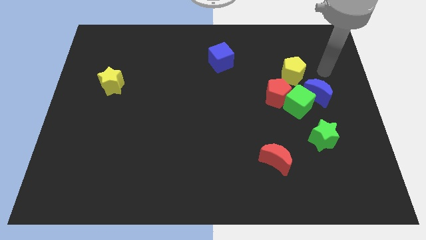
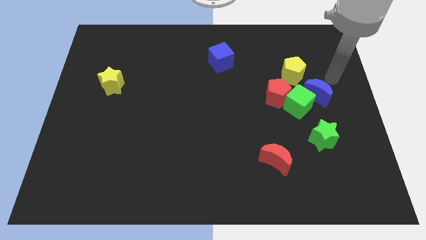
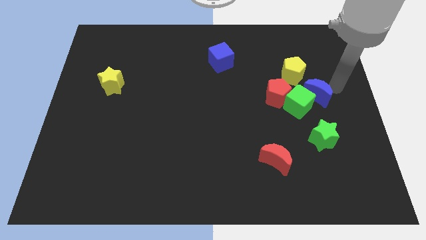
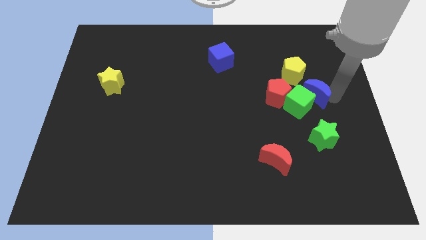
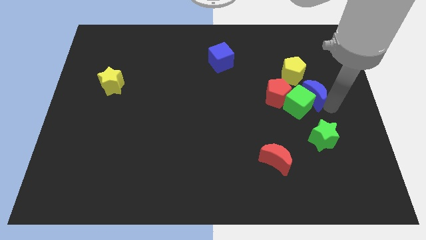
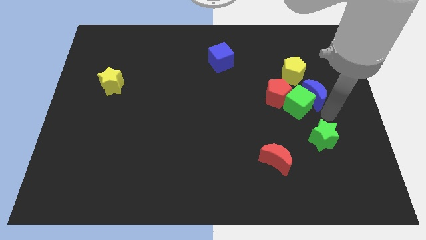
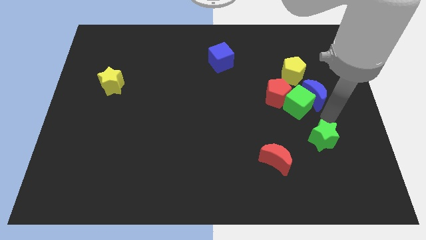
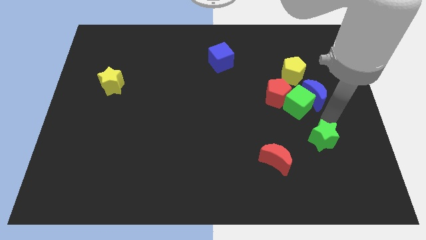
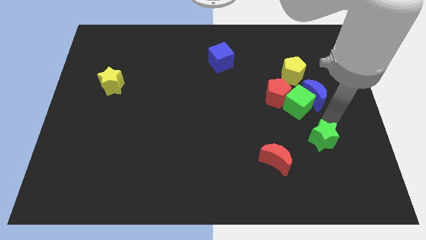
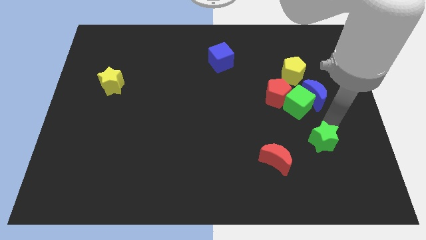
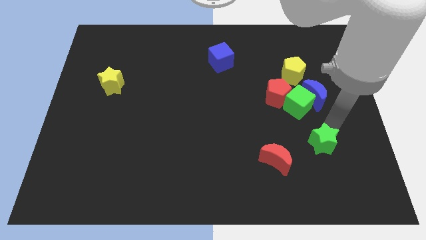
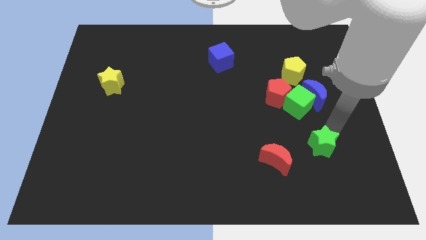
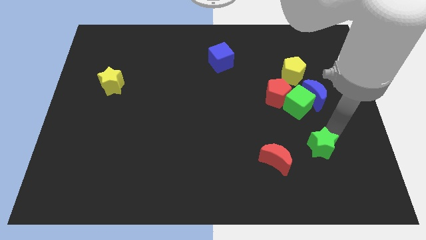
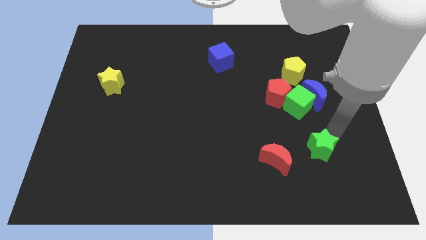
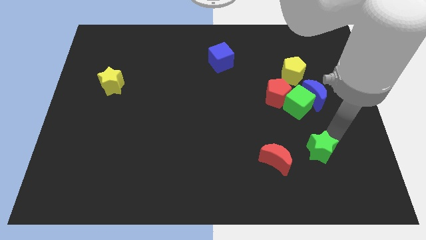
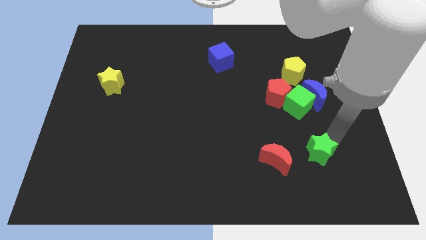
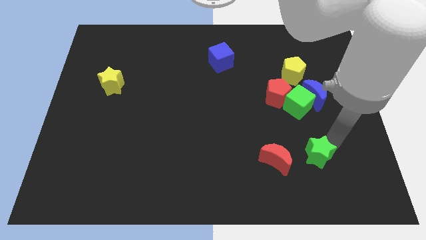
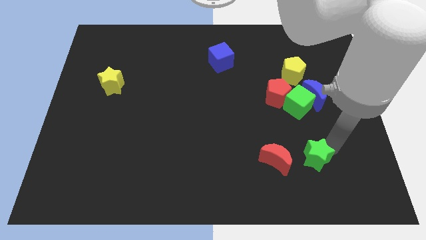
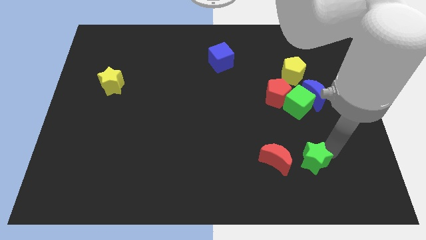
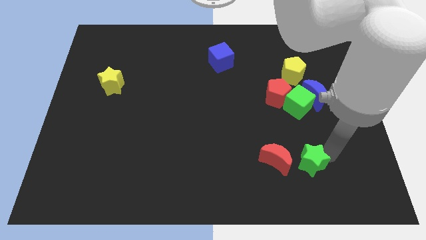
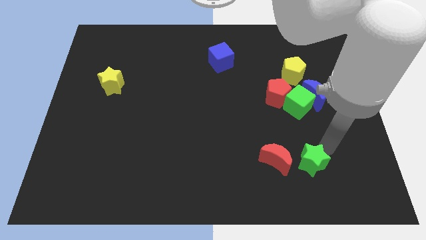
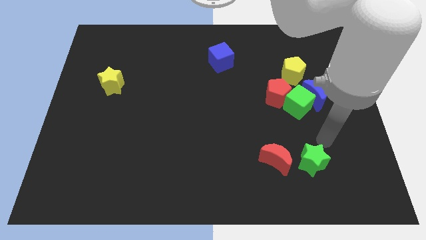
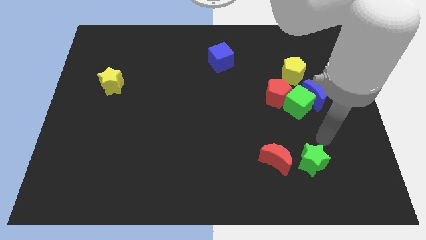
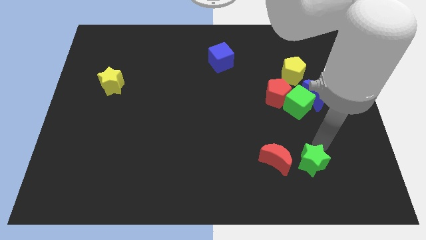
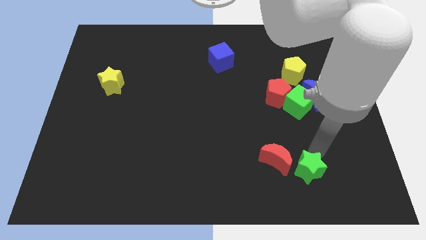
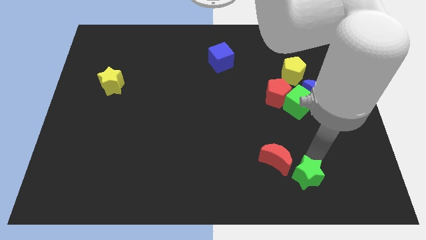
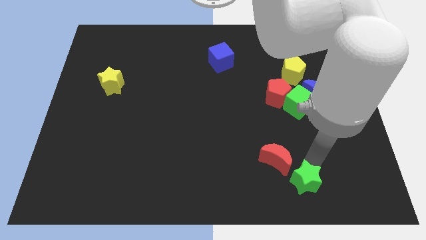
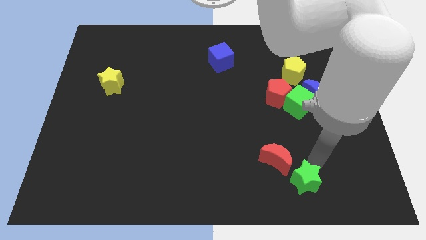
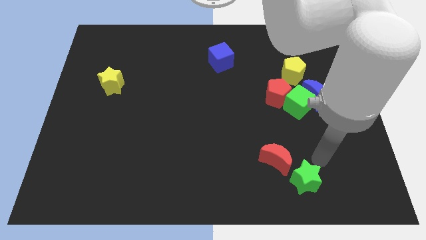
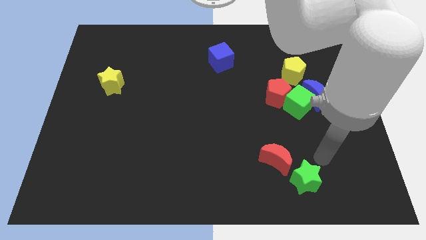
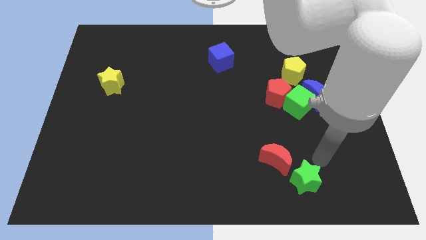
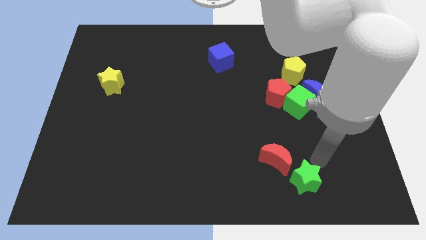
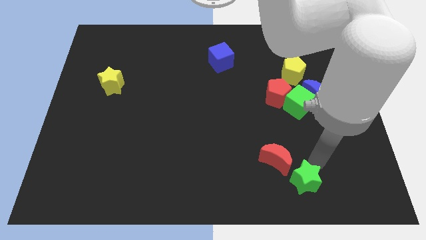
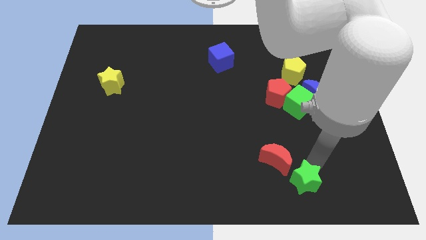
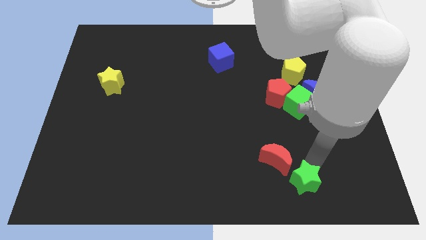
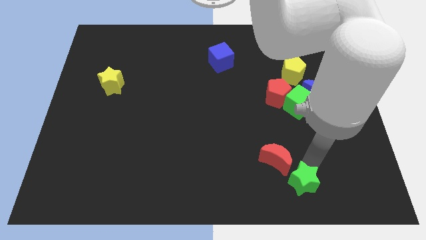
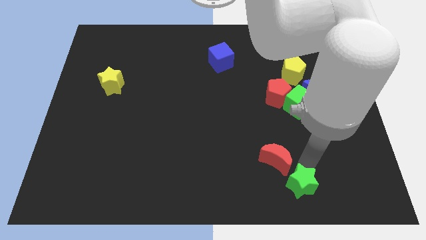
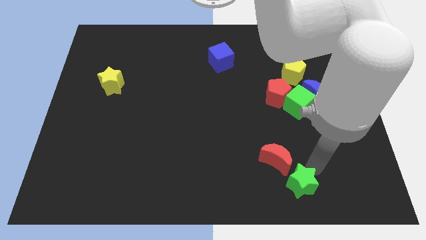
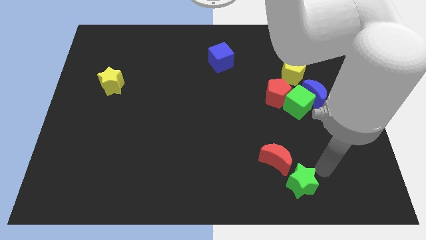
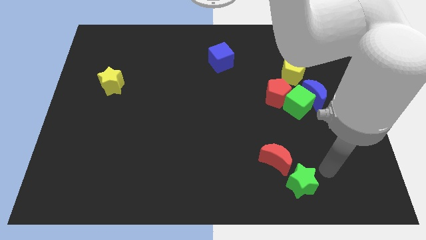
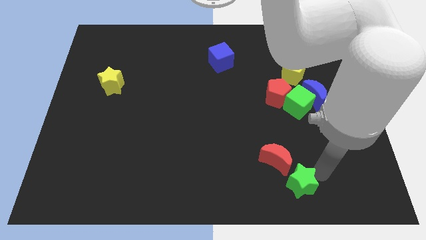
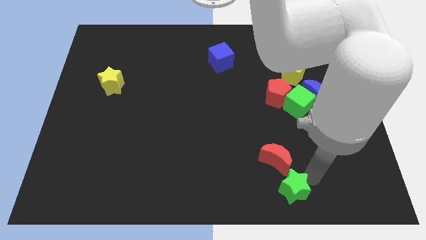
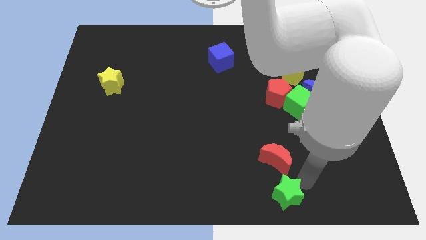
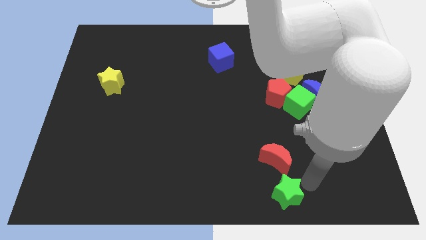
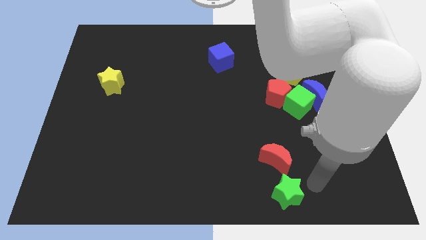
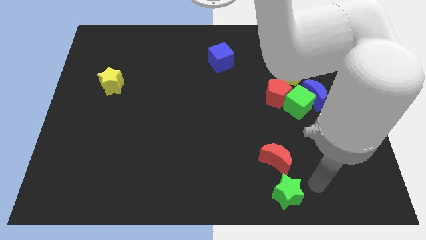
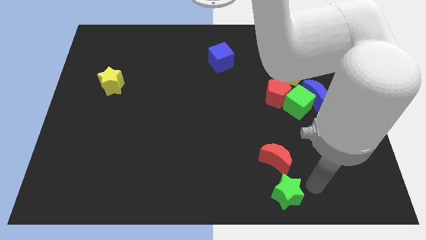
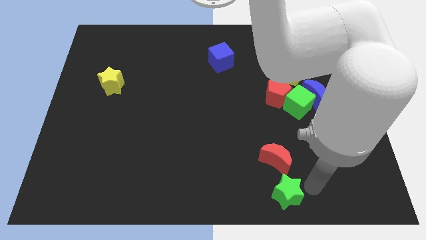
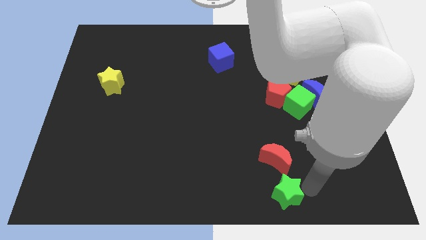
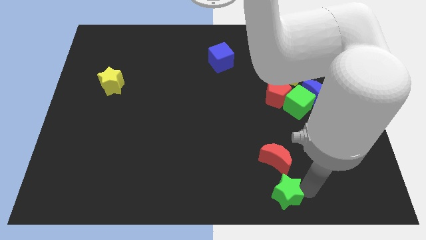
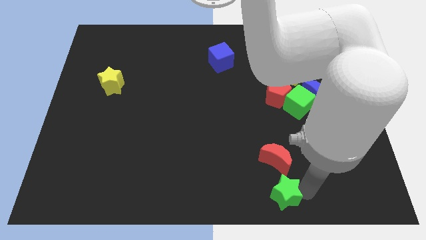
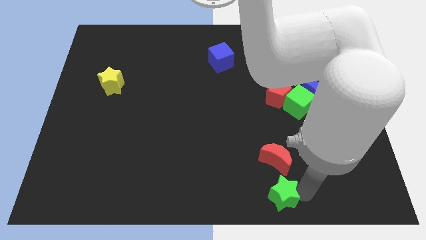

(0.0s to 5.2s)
push the green star to the bottom side

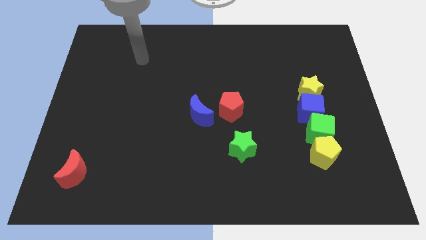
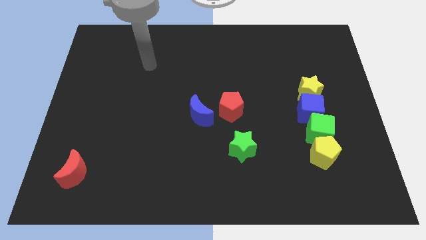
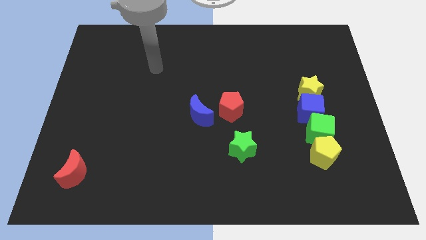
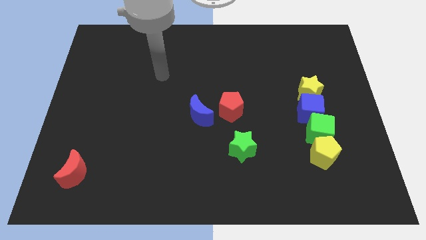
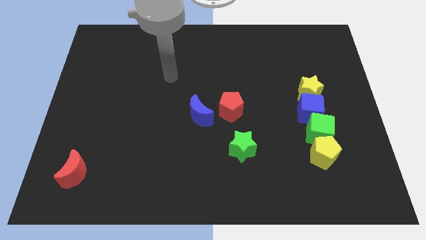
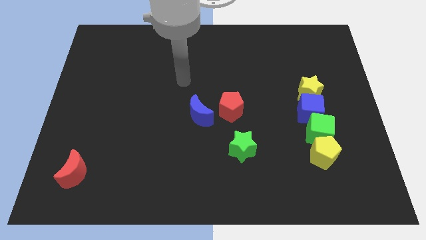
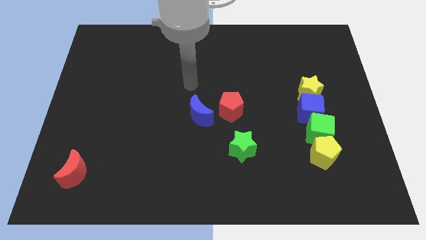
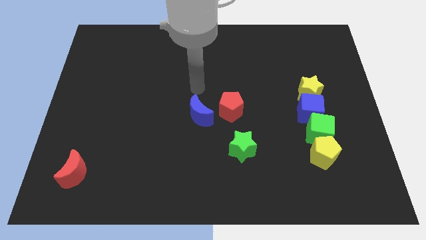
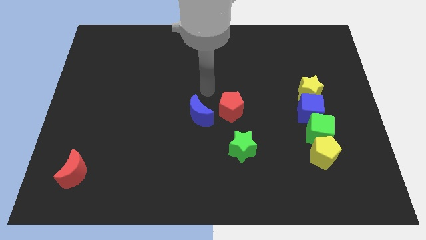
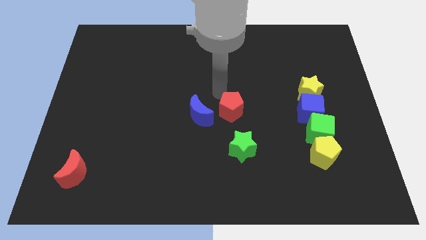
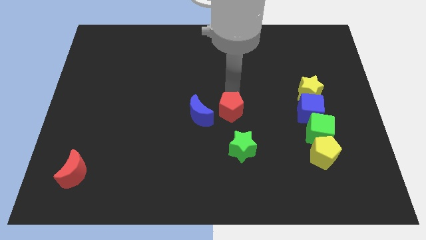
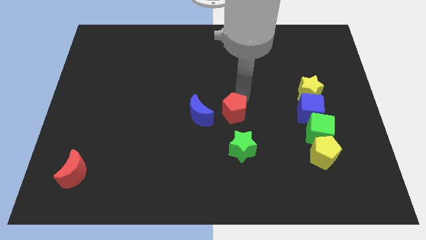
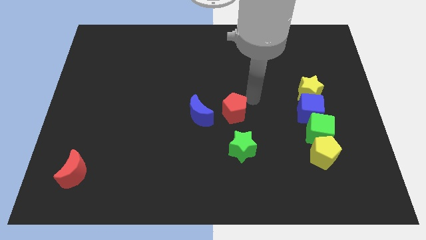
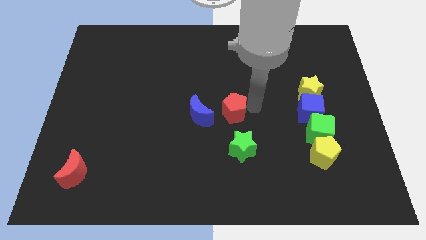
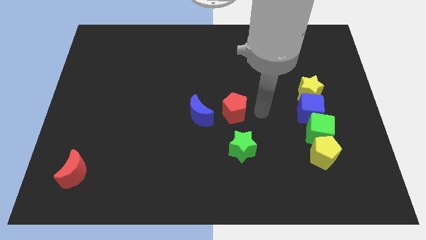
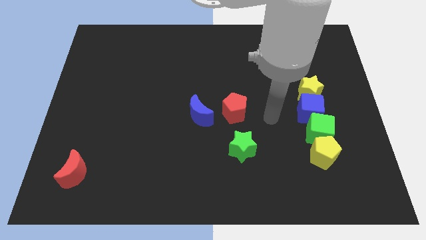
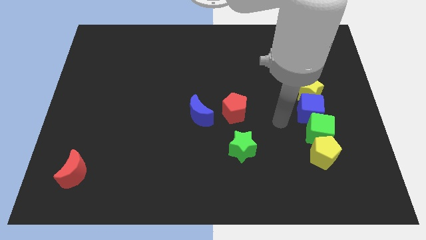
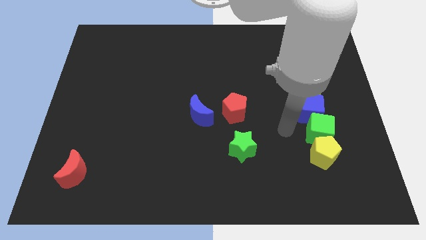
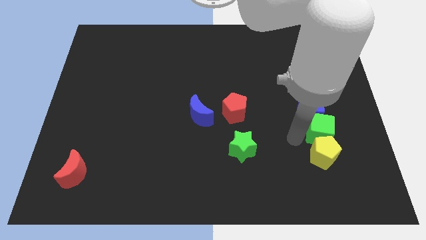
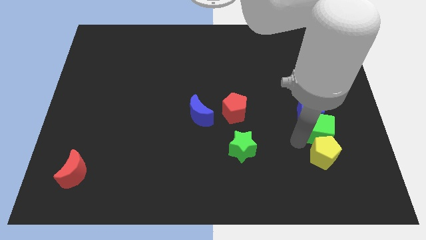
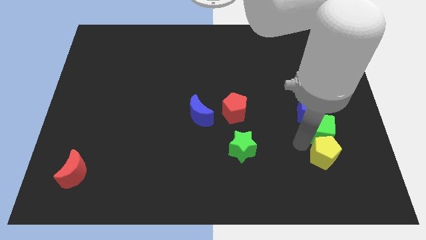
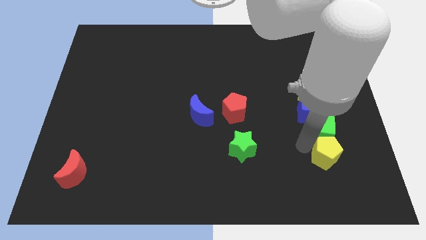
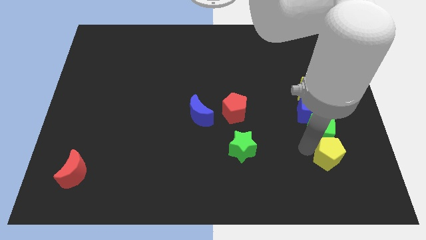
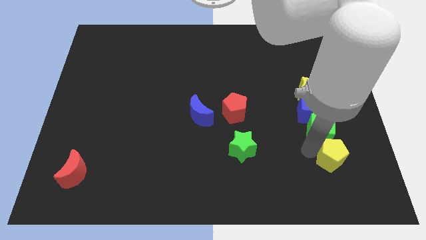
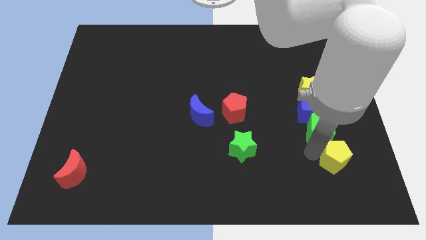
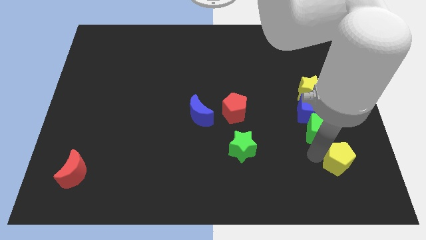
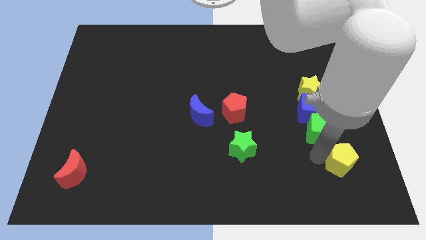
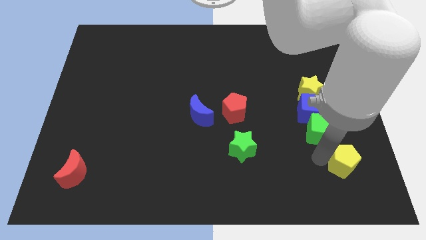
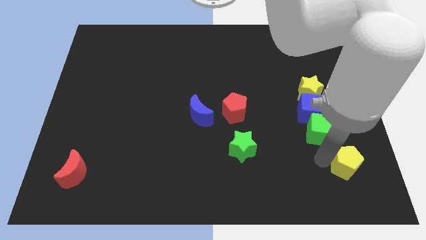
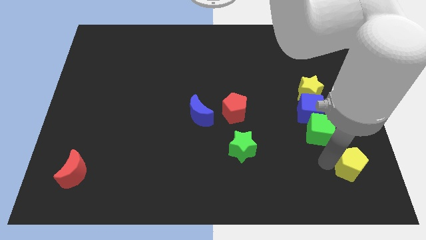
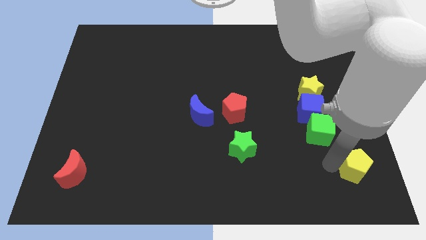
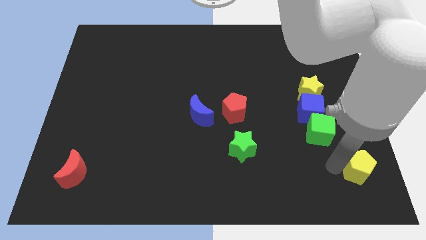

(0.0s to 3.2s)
slide the yellow pentagon to the bottom right
